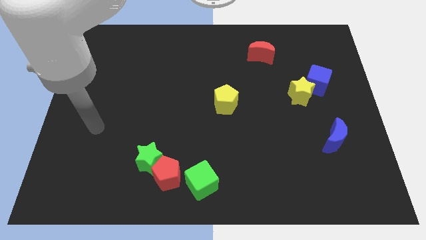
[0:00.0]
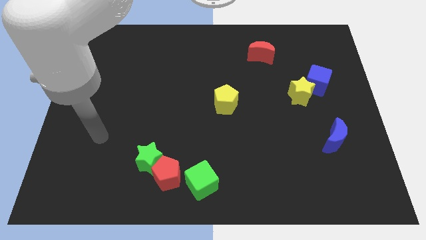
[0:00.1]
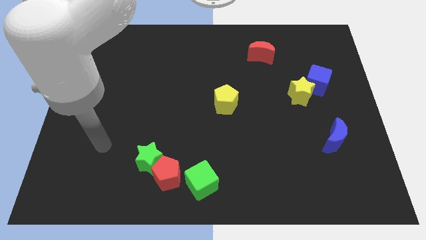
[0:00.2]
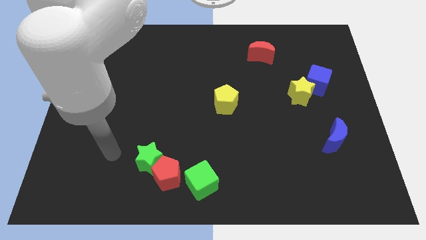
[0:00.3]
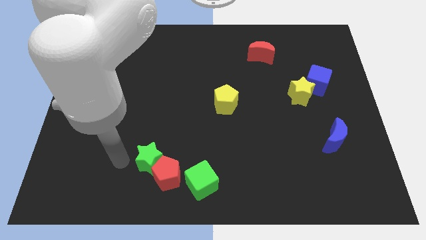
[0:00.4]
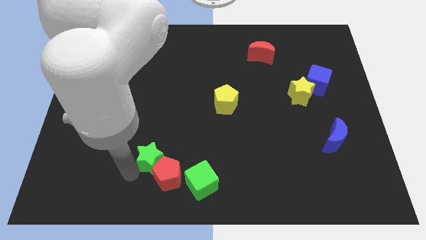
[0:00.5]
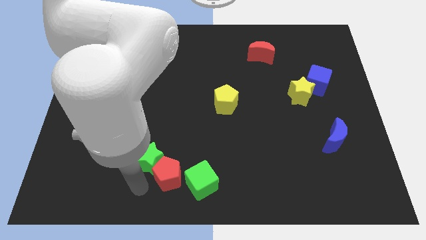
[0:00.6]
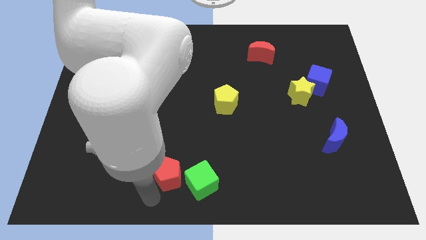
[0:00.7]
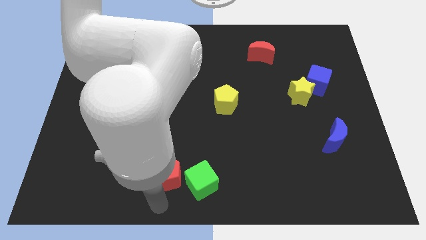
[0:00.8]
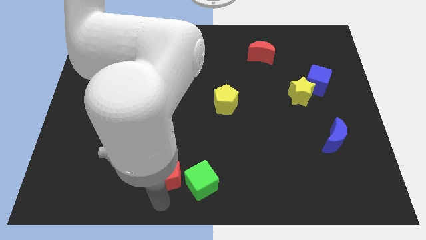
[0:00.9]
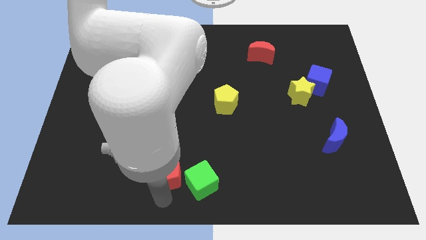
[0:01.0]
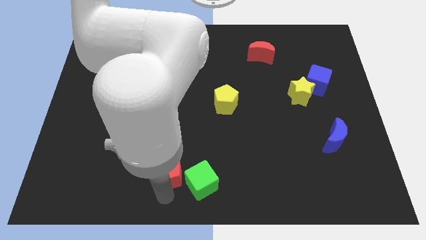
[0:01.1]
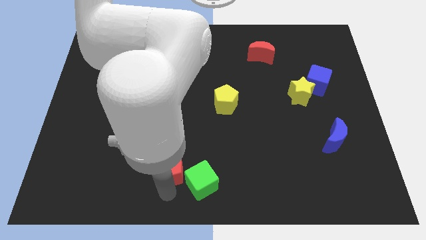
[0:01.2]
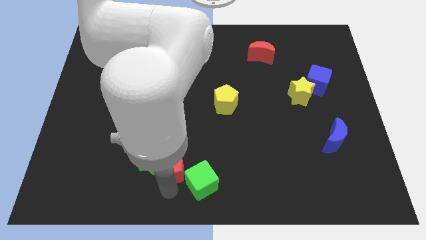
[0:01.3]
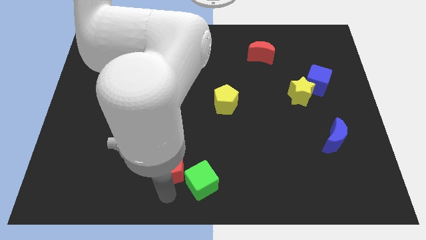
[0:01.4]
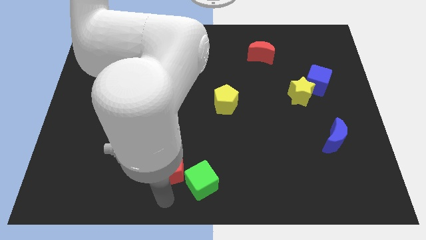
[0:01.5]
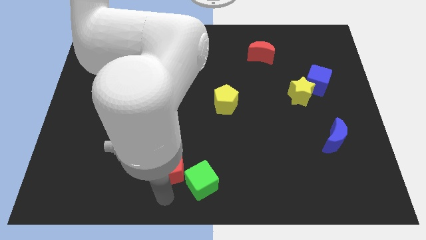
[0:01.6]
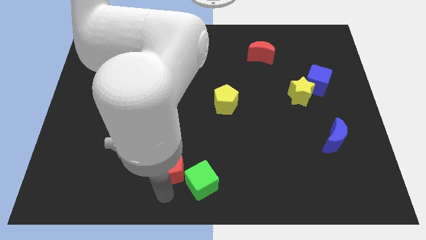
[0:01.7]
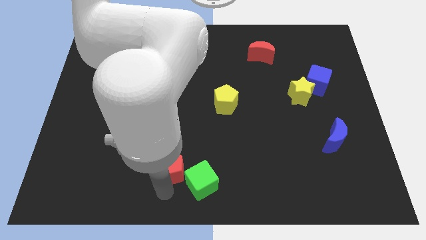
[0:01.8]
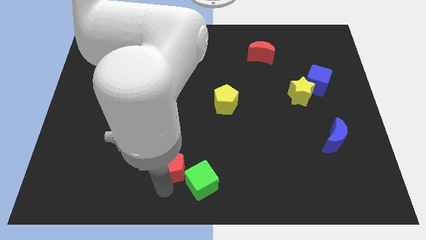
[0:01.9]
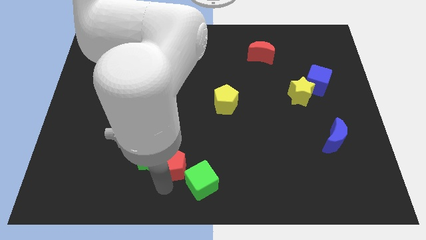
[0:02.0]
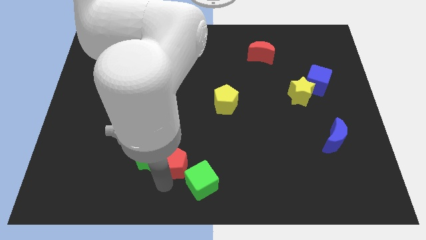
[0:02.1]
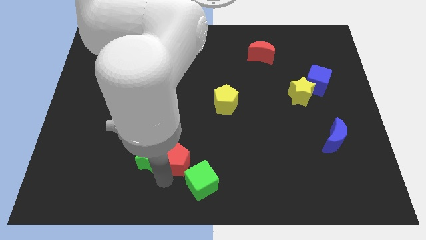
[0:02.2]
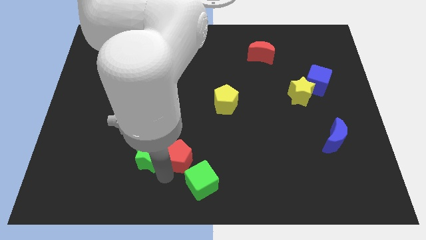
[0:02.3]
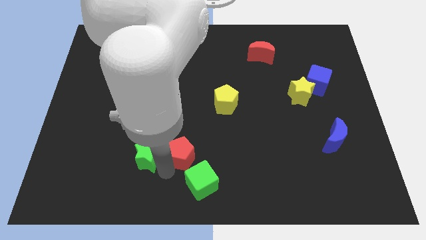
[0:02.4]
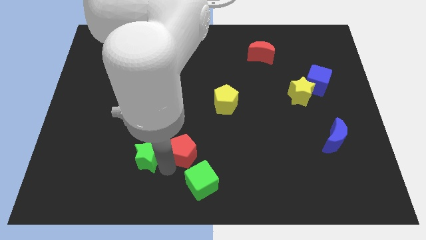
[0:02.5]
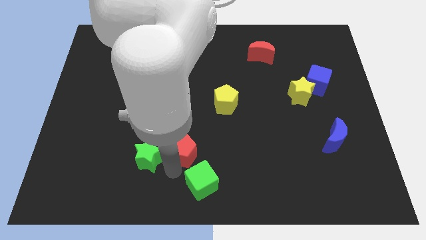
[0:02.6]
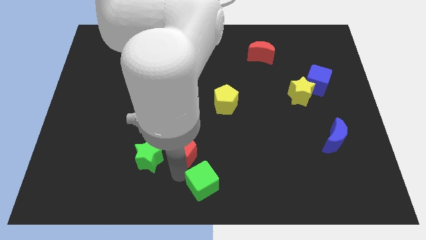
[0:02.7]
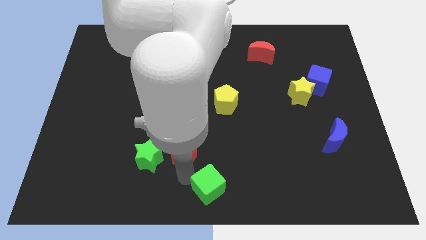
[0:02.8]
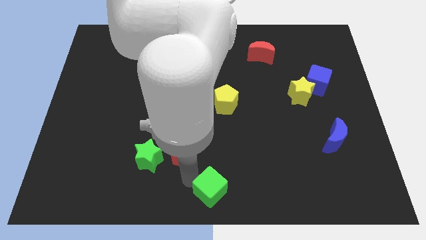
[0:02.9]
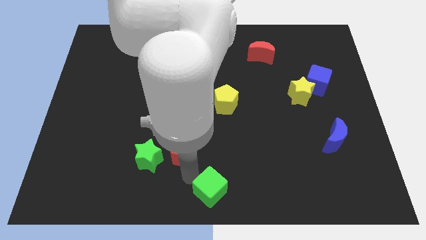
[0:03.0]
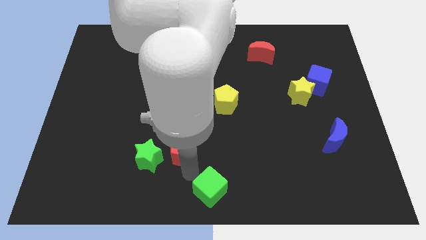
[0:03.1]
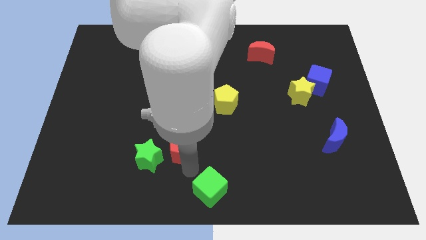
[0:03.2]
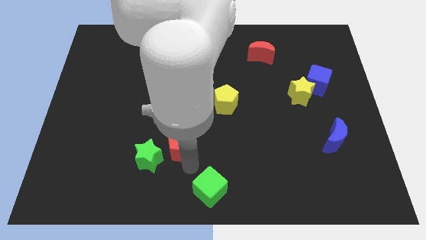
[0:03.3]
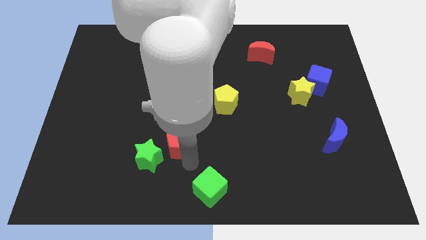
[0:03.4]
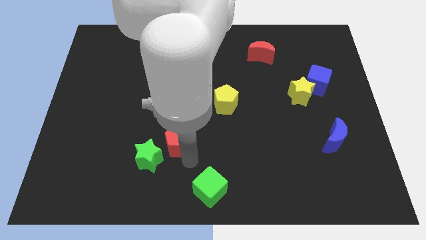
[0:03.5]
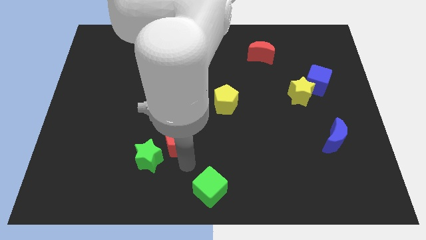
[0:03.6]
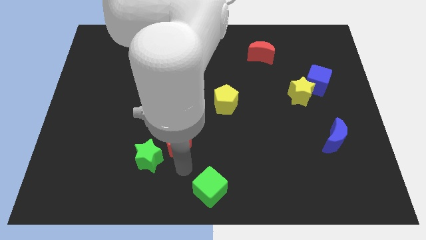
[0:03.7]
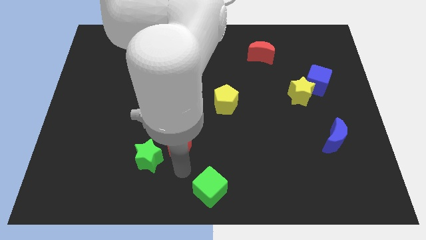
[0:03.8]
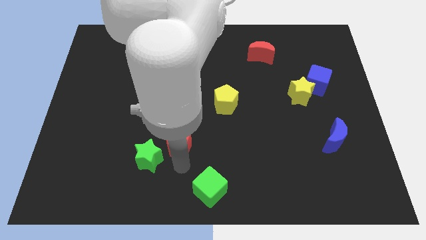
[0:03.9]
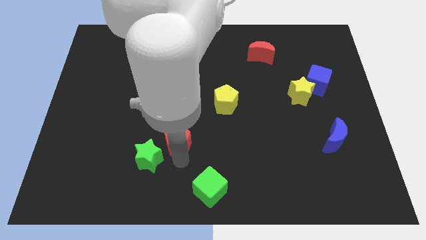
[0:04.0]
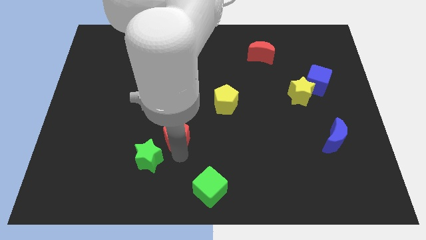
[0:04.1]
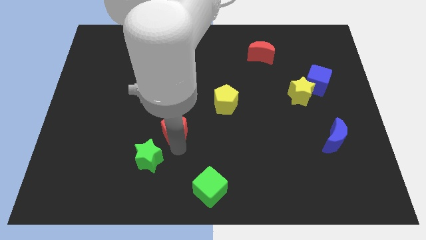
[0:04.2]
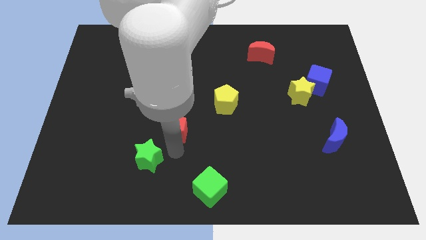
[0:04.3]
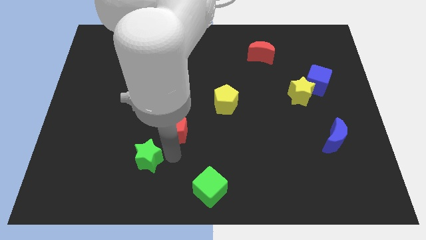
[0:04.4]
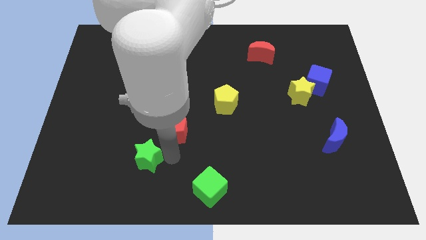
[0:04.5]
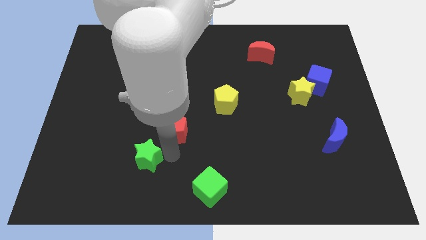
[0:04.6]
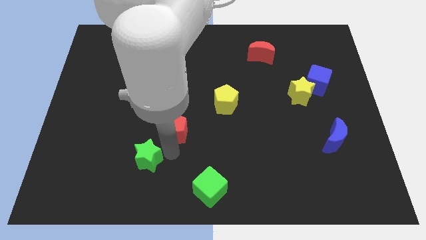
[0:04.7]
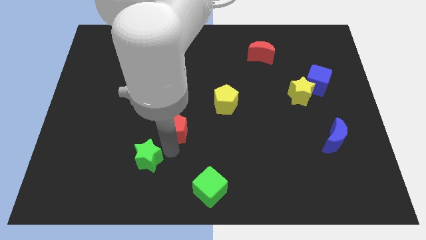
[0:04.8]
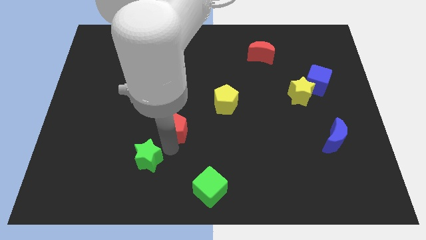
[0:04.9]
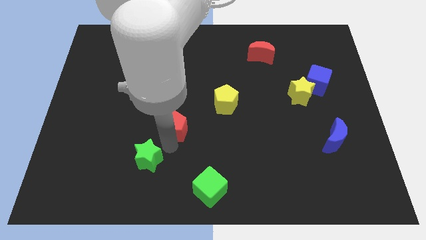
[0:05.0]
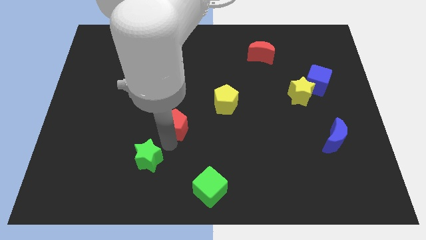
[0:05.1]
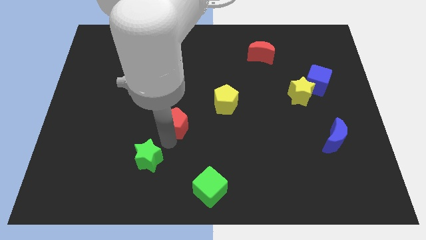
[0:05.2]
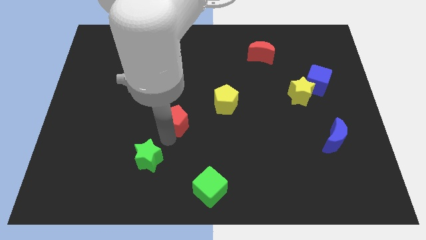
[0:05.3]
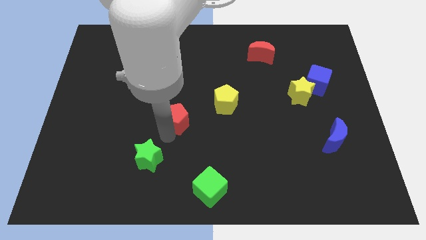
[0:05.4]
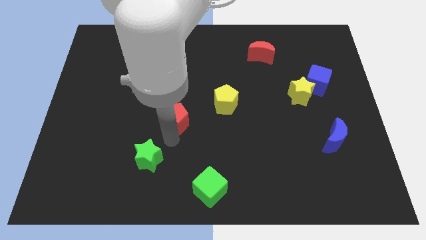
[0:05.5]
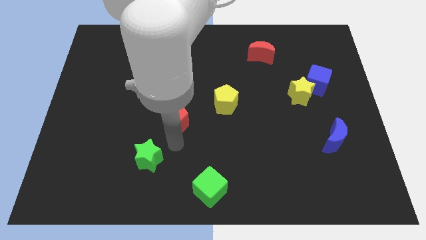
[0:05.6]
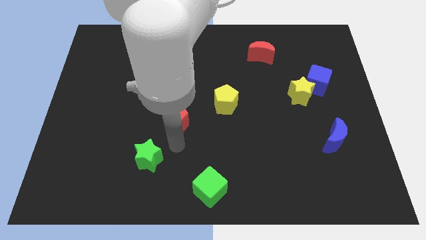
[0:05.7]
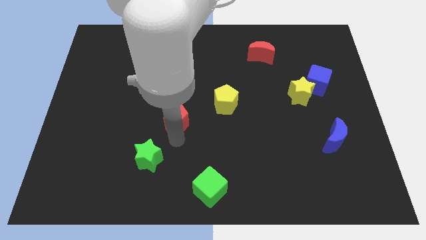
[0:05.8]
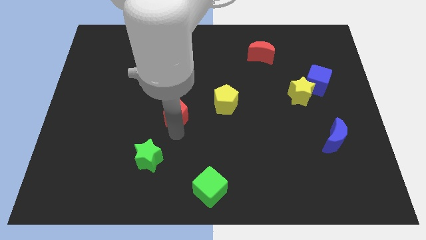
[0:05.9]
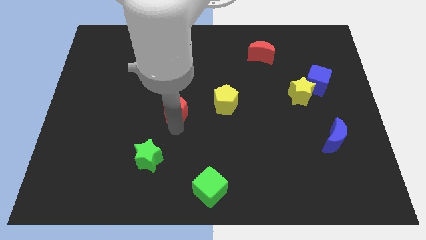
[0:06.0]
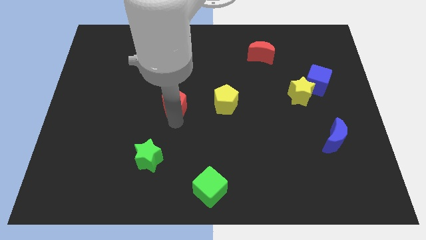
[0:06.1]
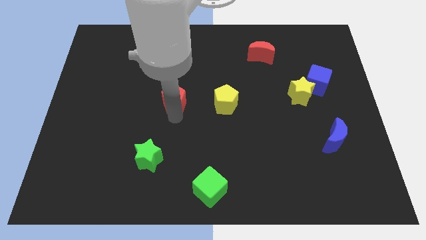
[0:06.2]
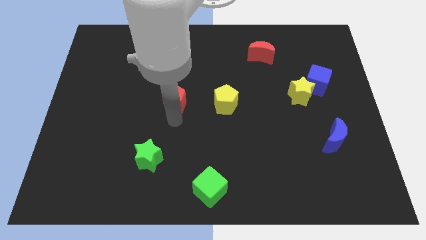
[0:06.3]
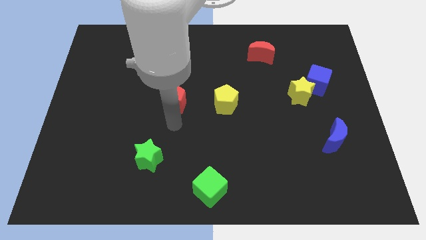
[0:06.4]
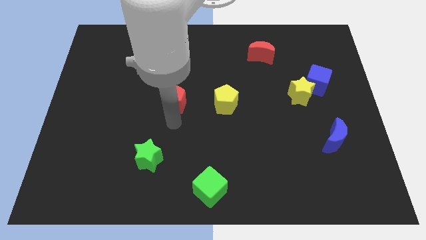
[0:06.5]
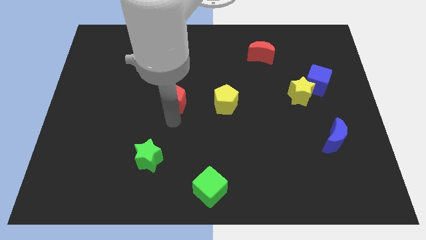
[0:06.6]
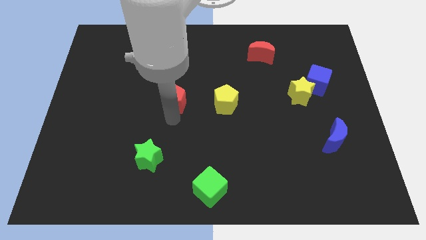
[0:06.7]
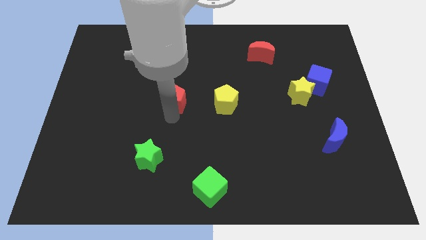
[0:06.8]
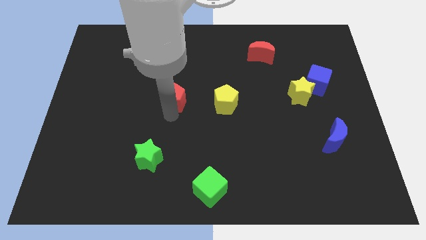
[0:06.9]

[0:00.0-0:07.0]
push the red pentagon upwards

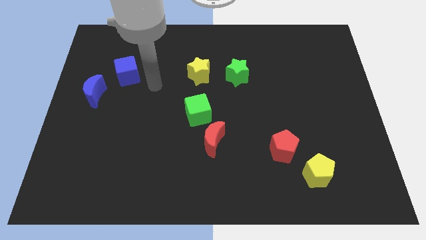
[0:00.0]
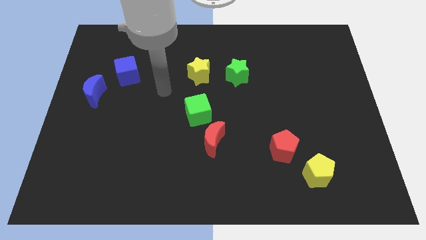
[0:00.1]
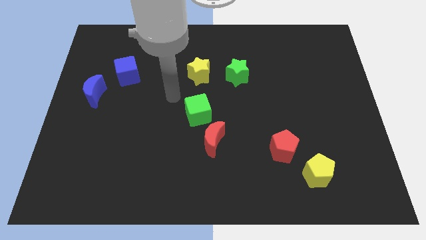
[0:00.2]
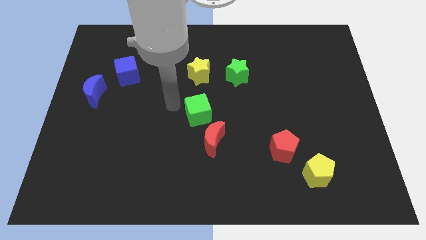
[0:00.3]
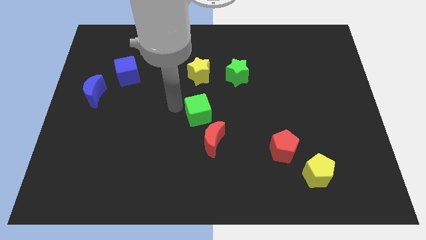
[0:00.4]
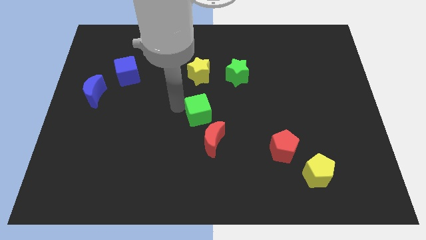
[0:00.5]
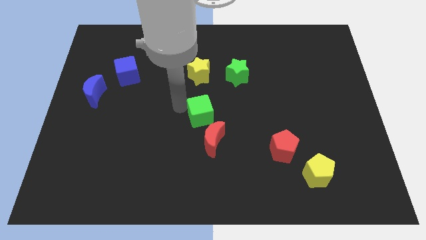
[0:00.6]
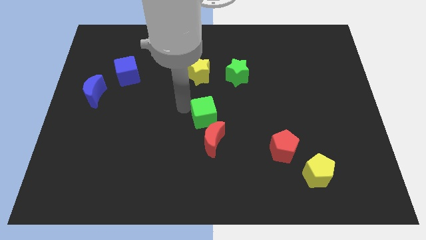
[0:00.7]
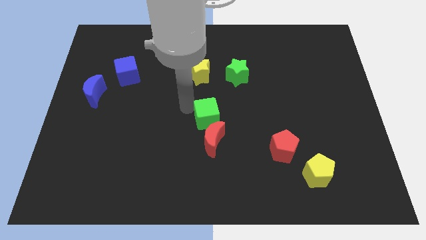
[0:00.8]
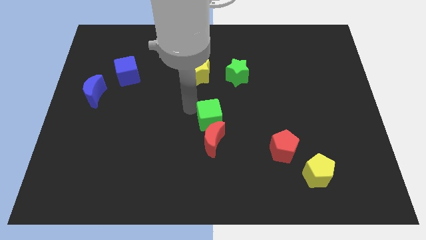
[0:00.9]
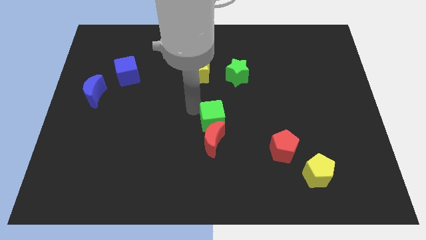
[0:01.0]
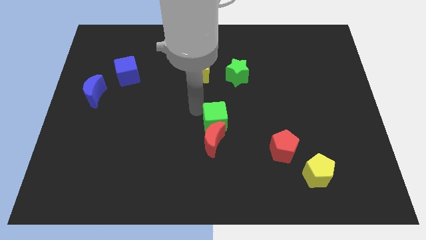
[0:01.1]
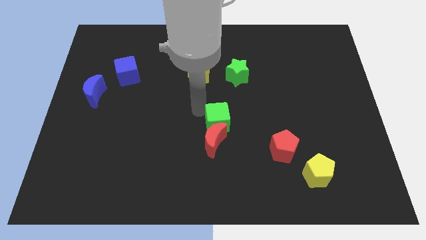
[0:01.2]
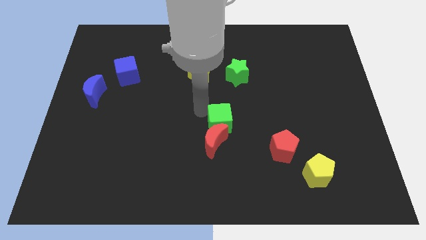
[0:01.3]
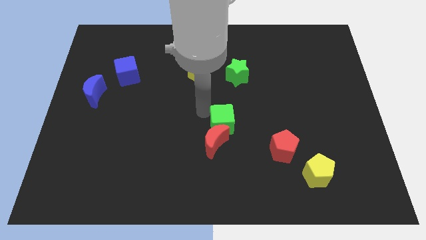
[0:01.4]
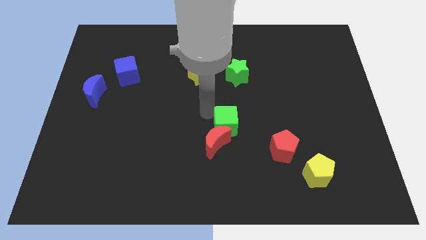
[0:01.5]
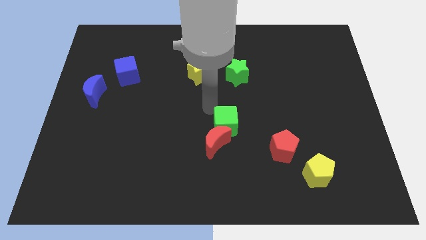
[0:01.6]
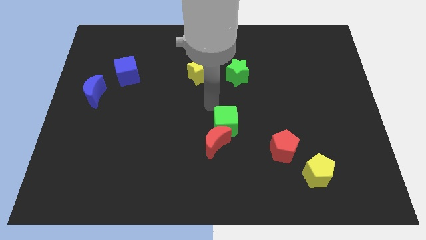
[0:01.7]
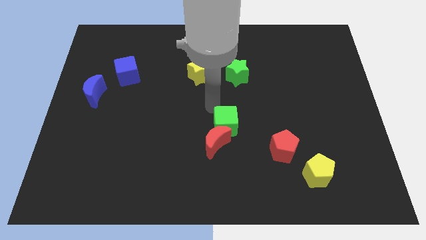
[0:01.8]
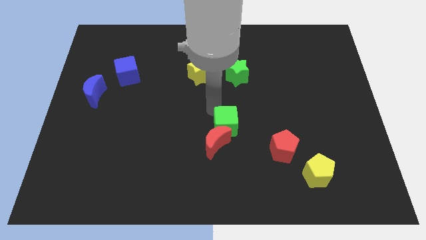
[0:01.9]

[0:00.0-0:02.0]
move the green cube diagonally down and to the right a little
